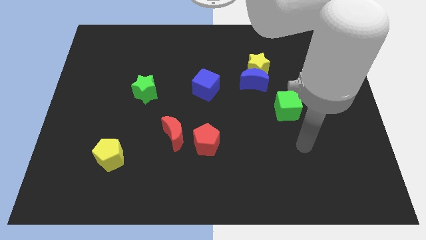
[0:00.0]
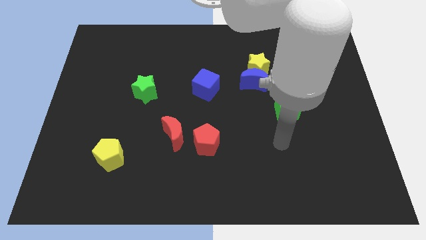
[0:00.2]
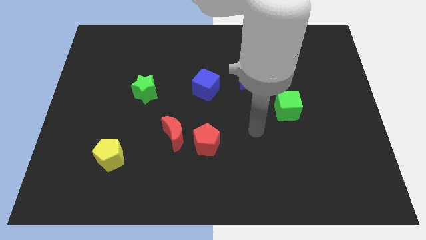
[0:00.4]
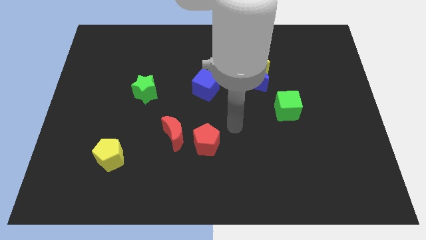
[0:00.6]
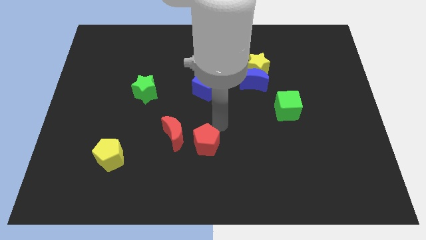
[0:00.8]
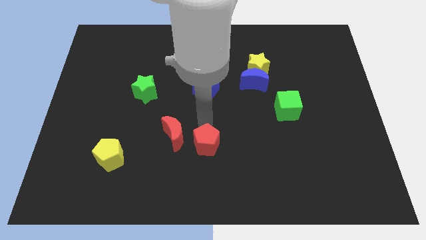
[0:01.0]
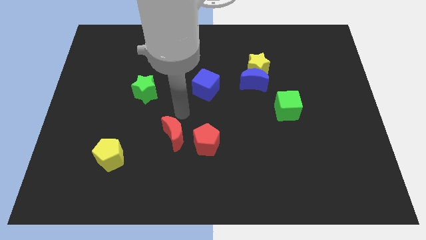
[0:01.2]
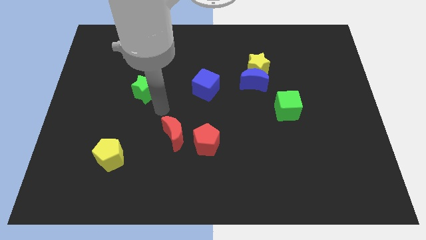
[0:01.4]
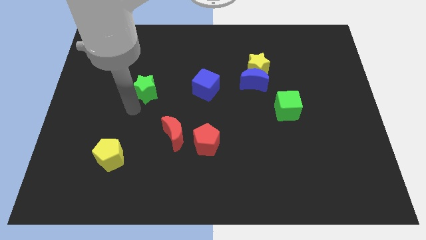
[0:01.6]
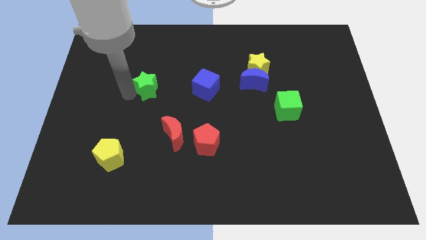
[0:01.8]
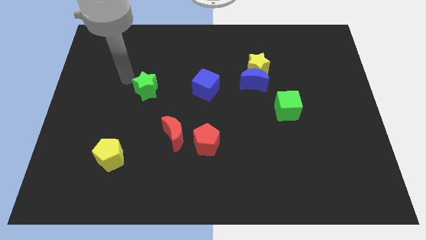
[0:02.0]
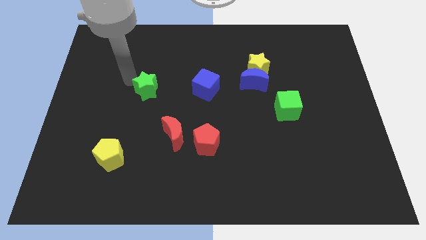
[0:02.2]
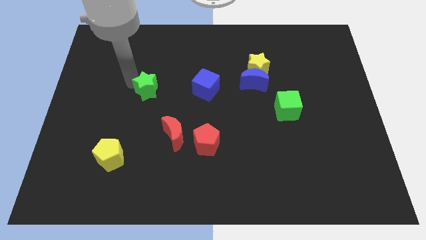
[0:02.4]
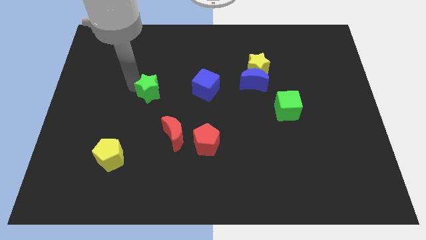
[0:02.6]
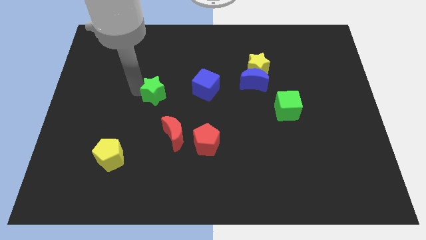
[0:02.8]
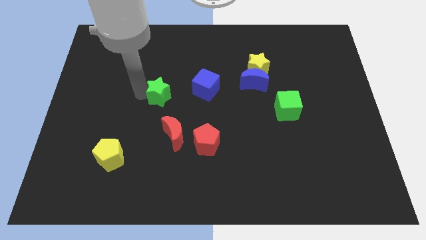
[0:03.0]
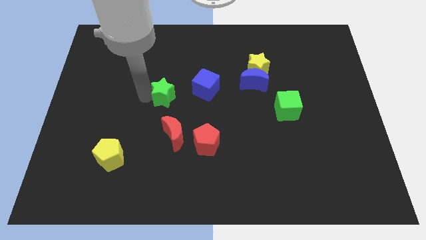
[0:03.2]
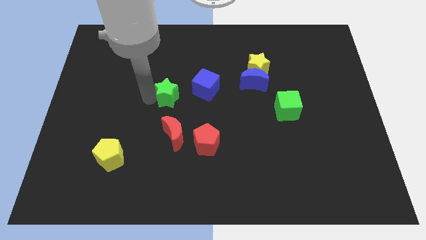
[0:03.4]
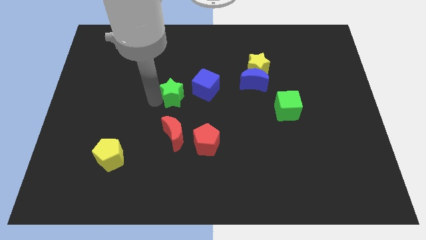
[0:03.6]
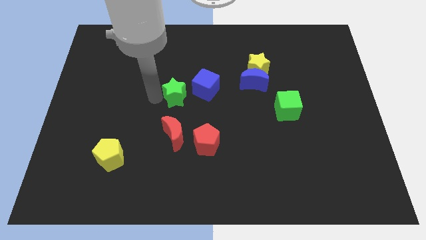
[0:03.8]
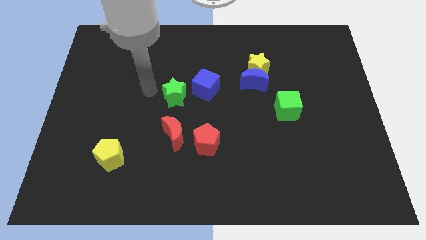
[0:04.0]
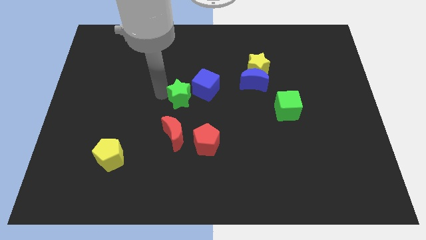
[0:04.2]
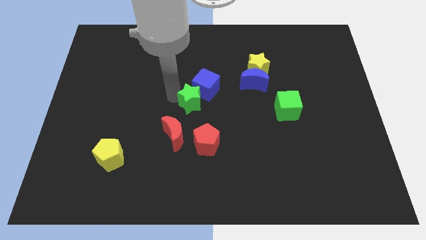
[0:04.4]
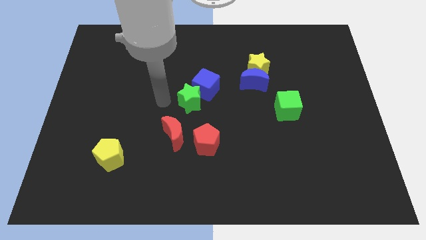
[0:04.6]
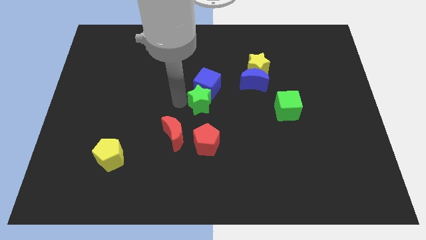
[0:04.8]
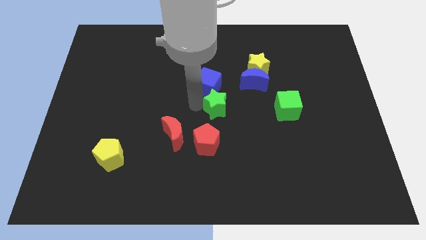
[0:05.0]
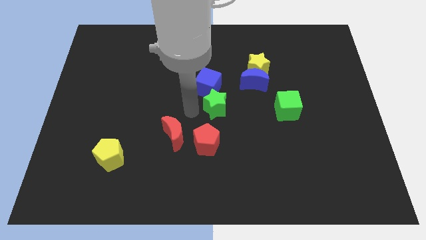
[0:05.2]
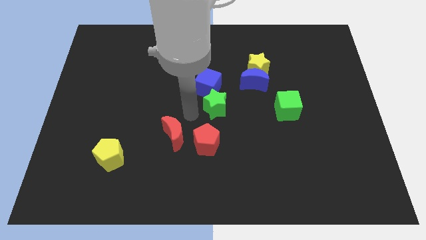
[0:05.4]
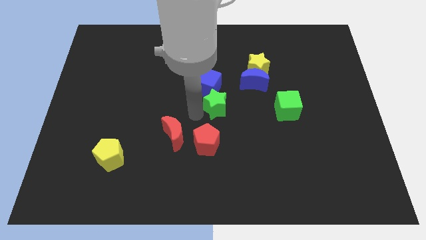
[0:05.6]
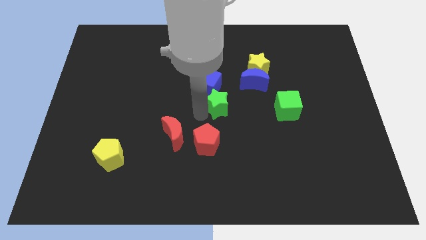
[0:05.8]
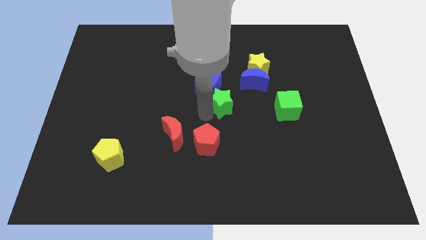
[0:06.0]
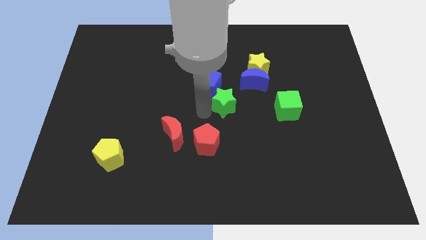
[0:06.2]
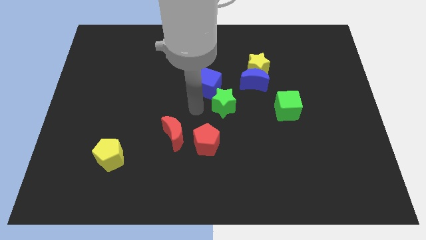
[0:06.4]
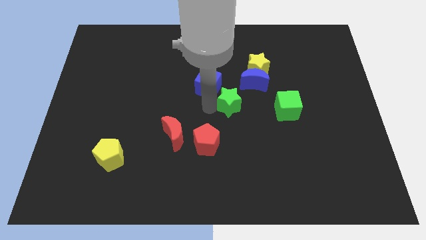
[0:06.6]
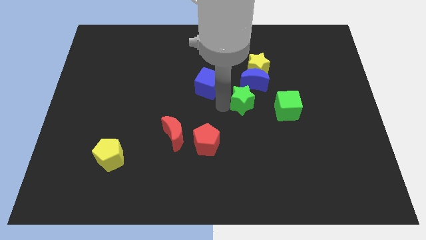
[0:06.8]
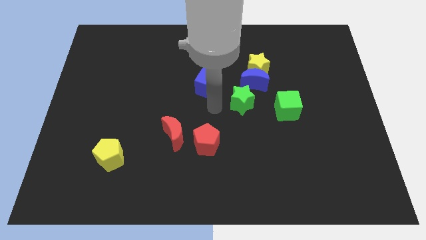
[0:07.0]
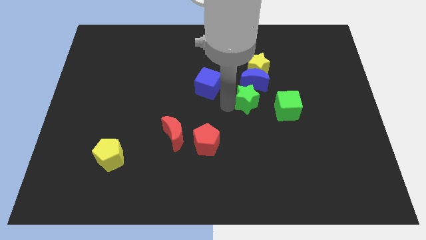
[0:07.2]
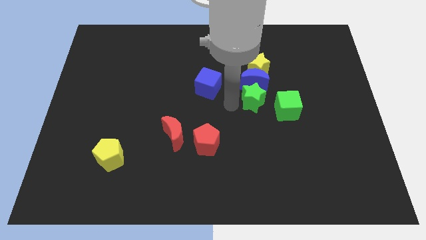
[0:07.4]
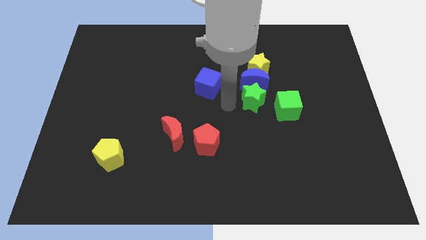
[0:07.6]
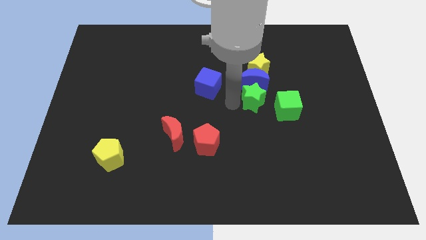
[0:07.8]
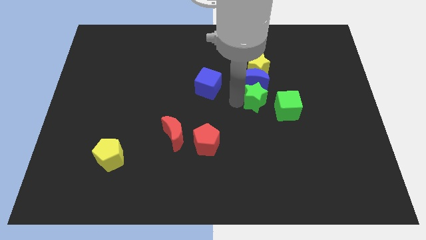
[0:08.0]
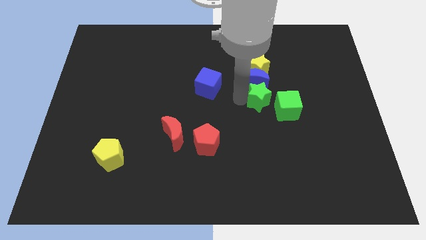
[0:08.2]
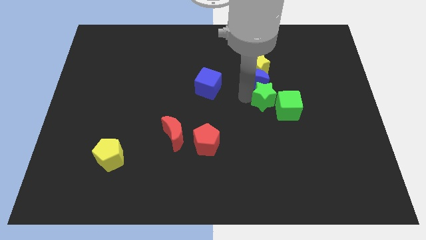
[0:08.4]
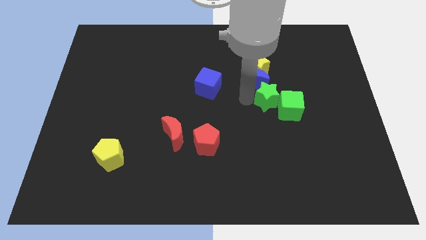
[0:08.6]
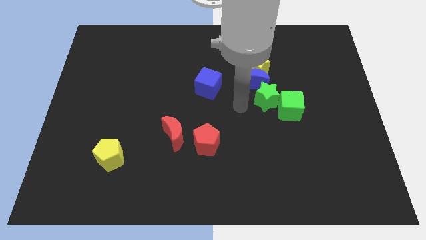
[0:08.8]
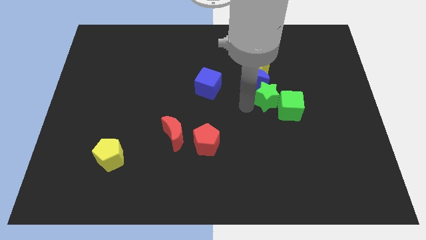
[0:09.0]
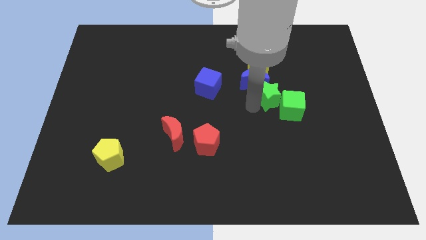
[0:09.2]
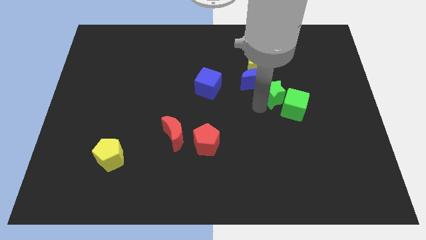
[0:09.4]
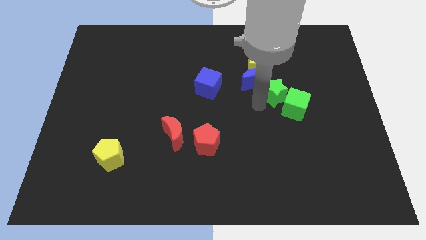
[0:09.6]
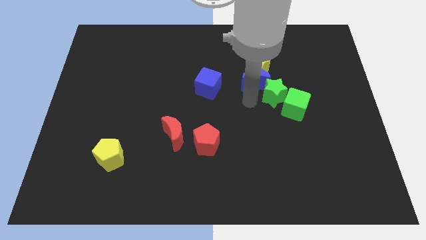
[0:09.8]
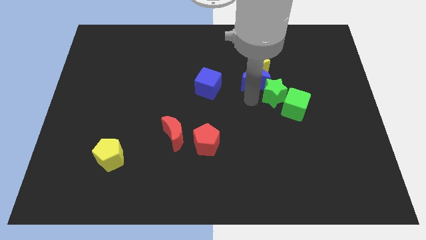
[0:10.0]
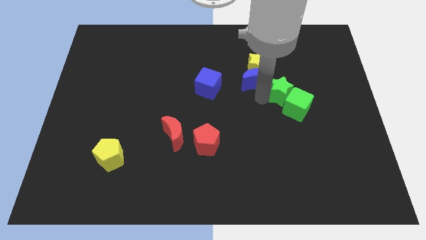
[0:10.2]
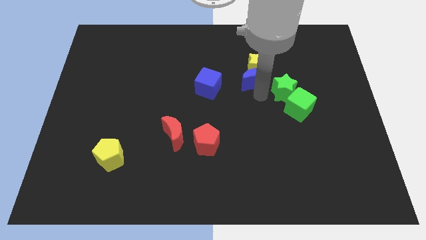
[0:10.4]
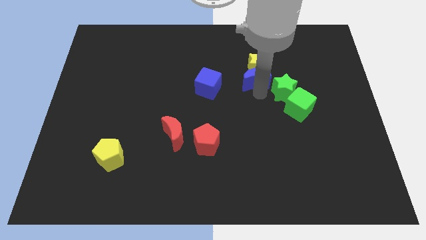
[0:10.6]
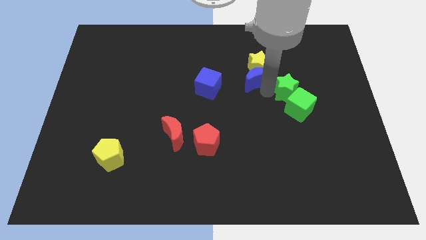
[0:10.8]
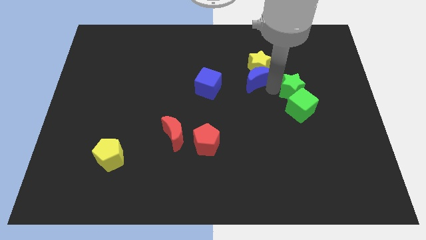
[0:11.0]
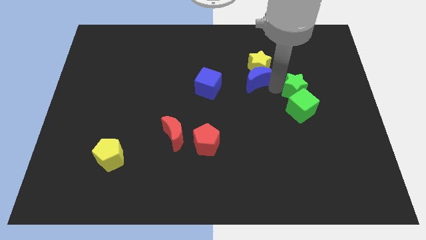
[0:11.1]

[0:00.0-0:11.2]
slide the green star to the top right of the green cube

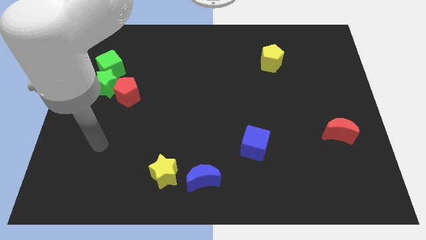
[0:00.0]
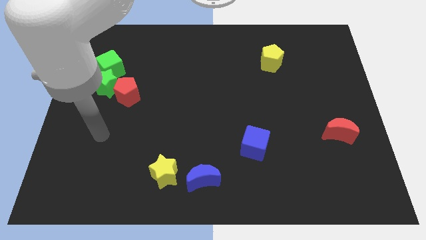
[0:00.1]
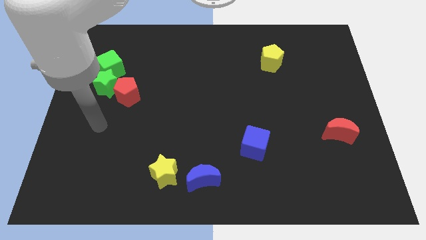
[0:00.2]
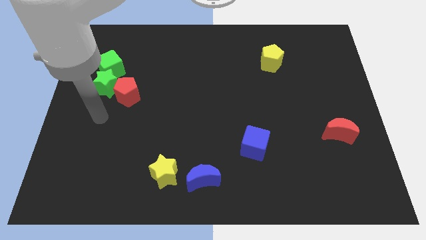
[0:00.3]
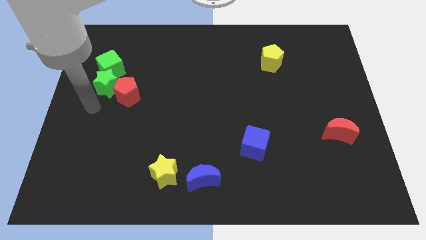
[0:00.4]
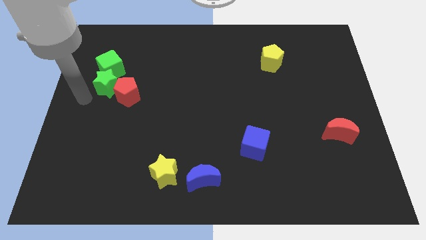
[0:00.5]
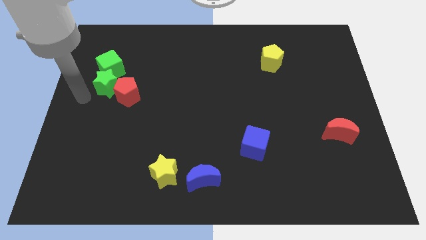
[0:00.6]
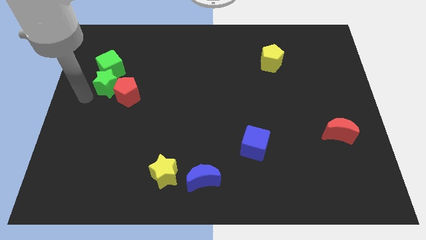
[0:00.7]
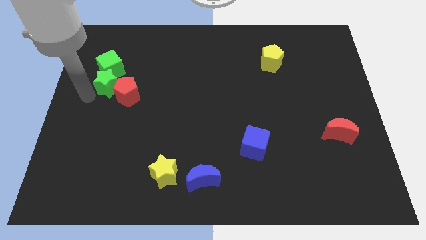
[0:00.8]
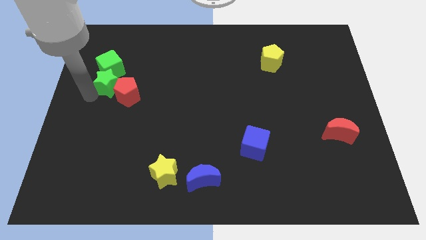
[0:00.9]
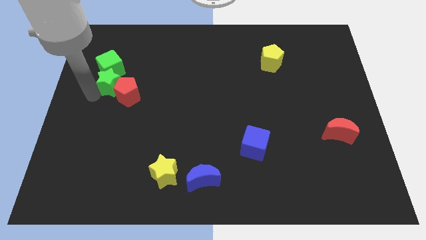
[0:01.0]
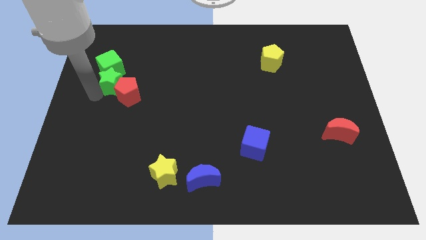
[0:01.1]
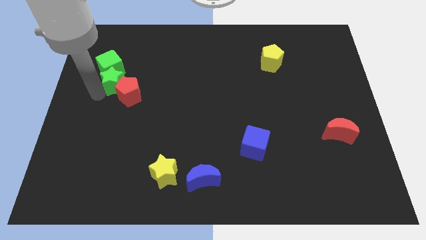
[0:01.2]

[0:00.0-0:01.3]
put the green star to the top side of the red pentagon
